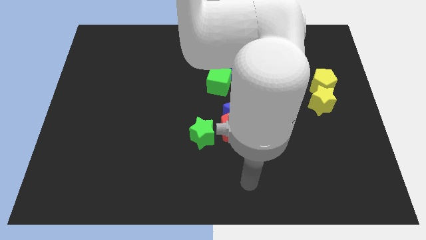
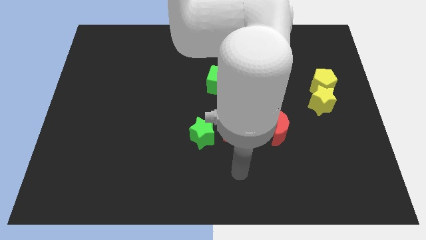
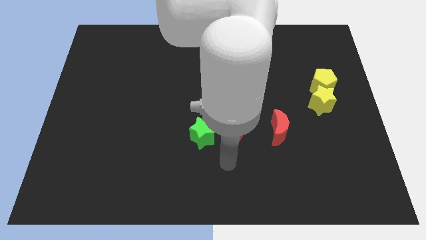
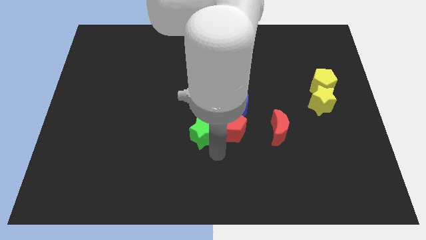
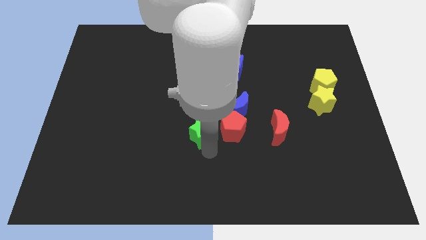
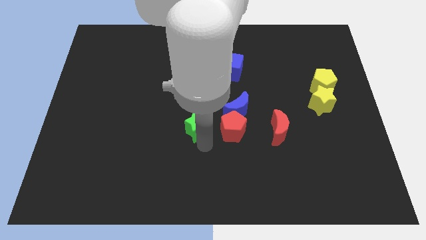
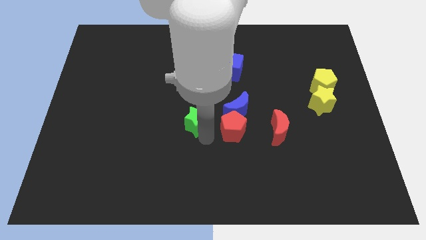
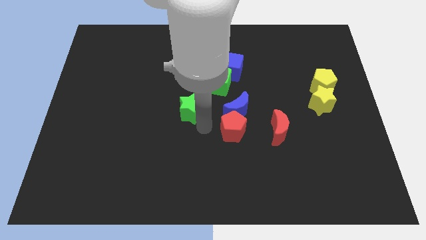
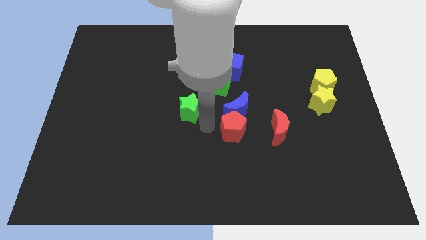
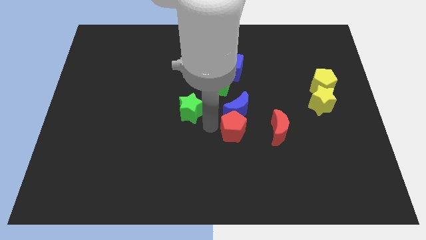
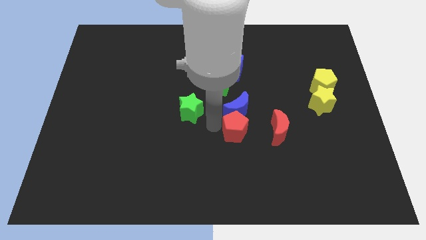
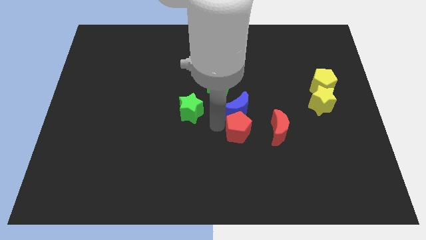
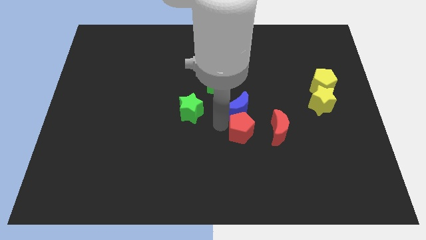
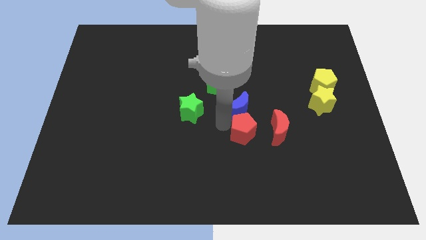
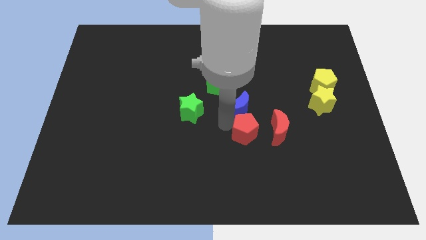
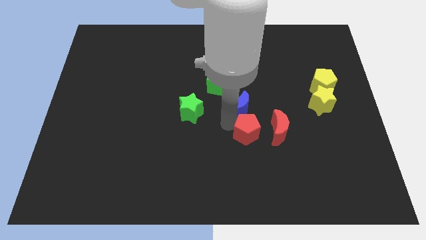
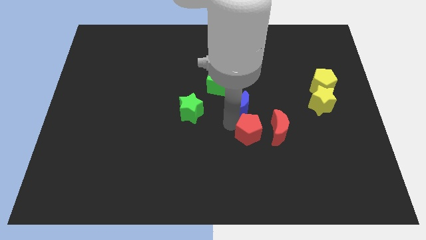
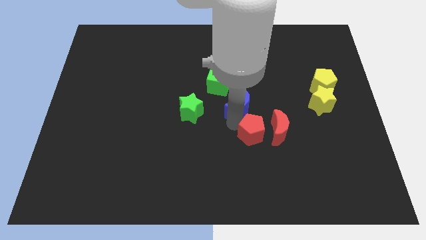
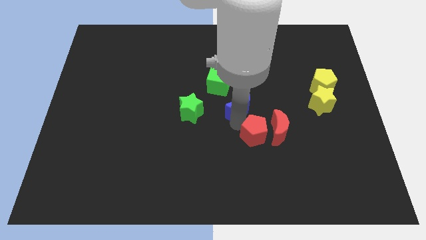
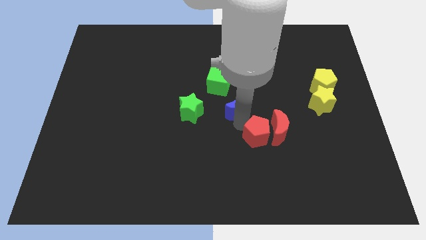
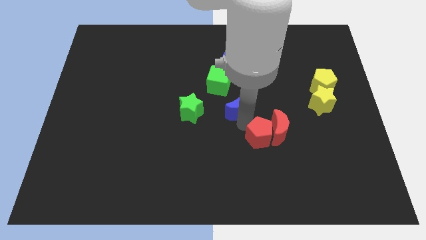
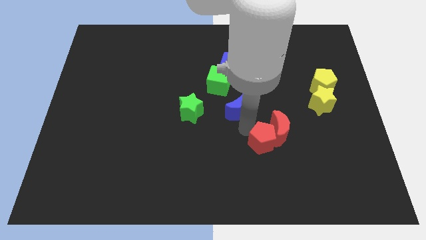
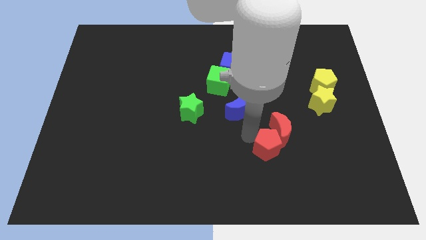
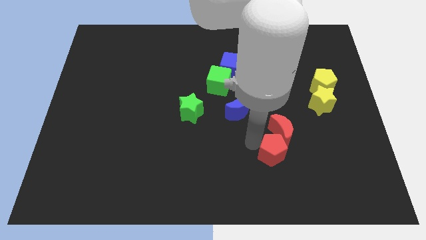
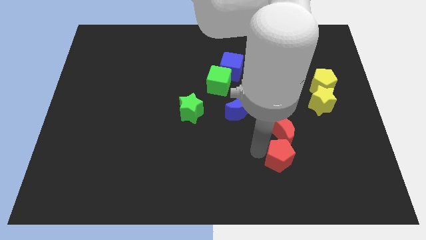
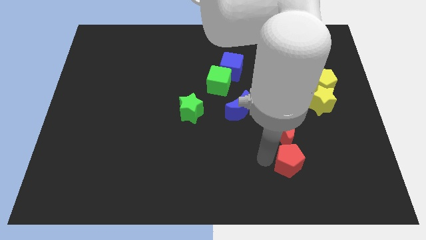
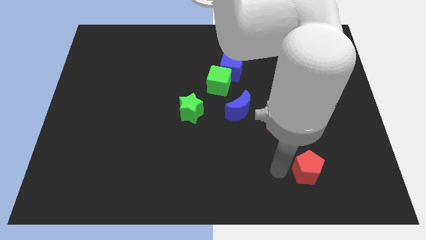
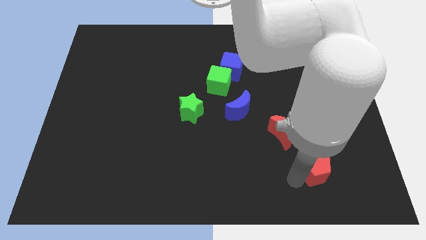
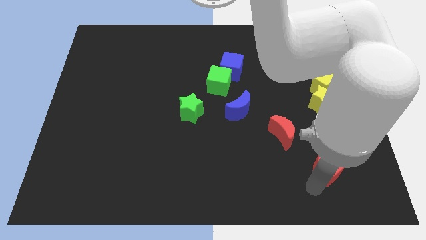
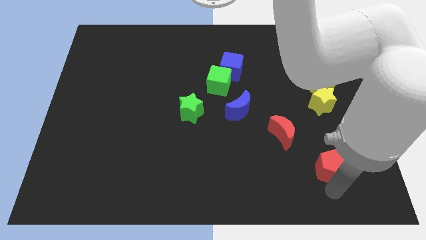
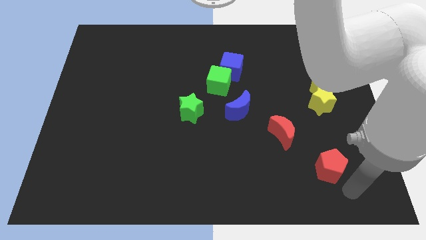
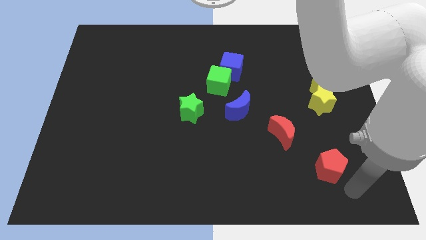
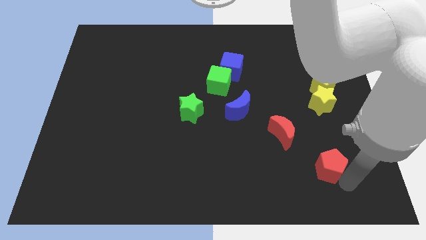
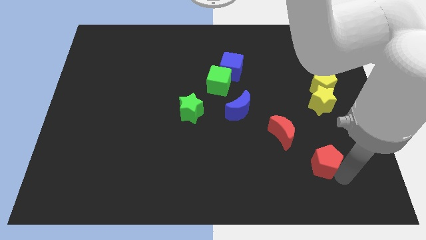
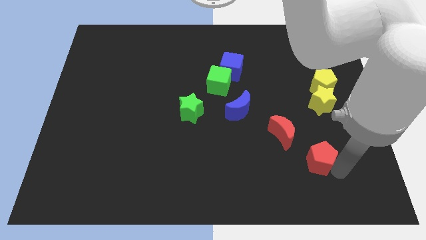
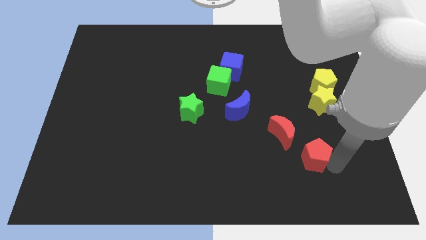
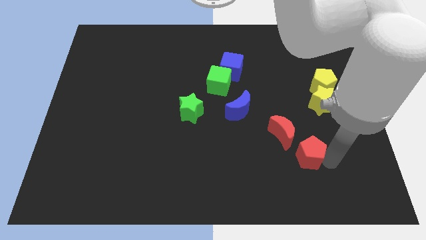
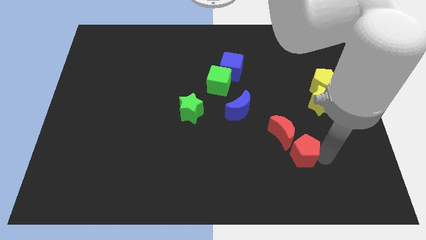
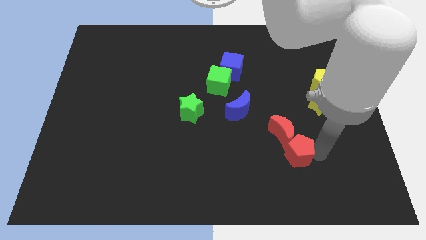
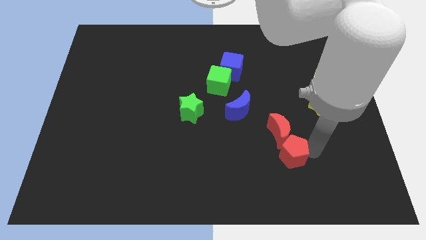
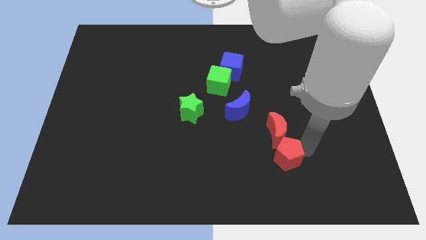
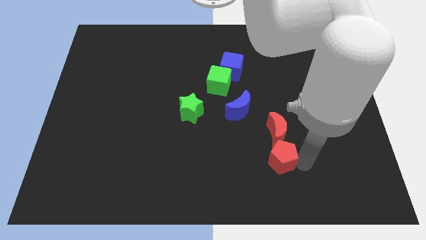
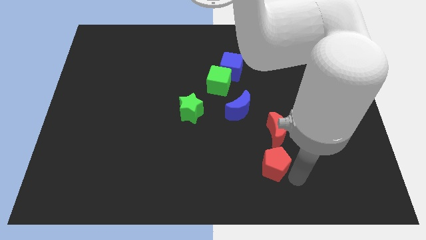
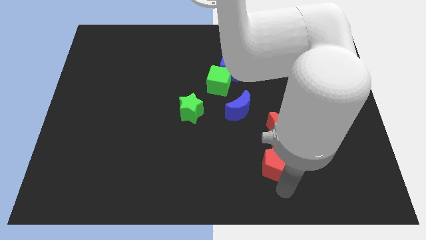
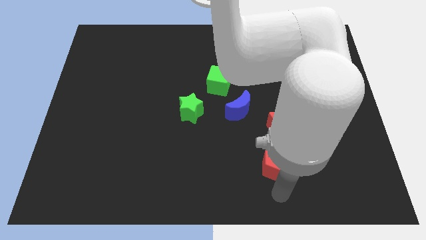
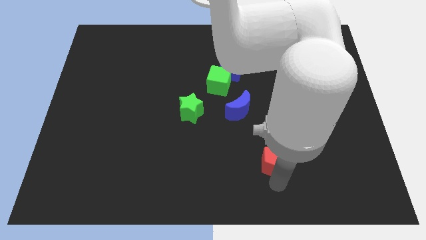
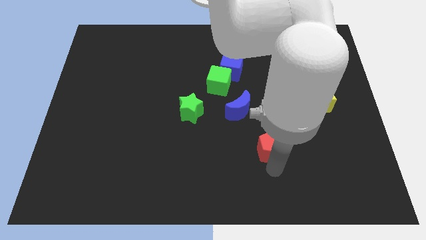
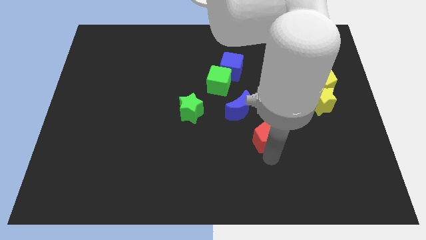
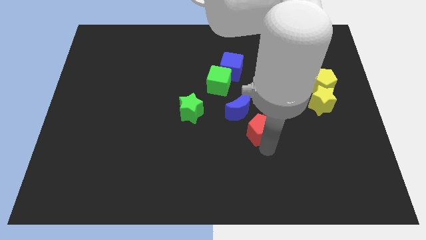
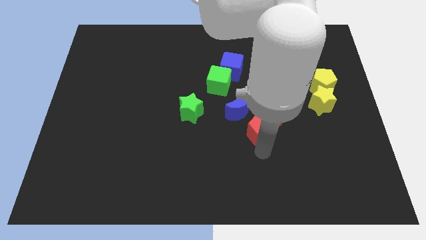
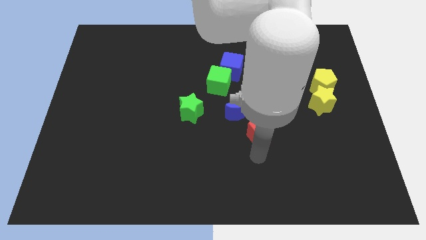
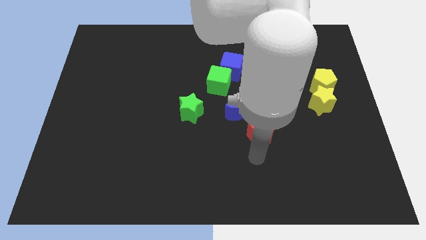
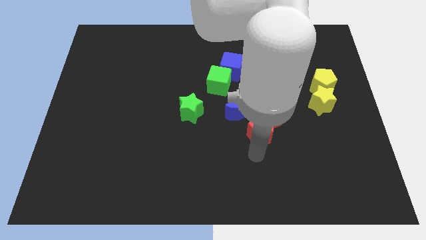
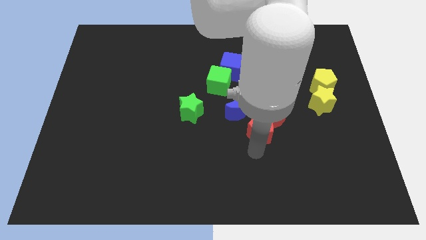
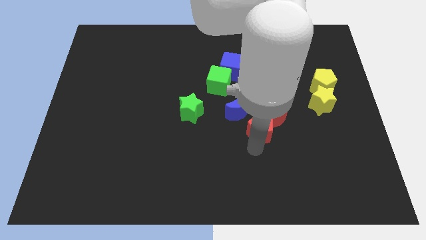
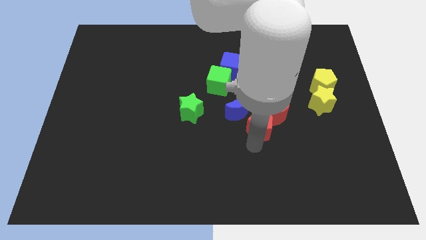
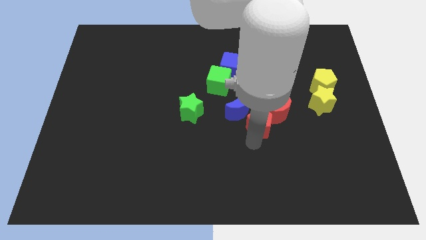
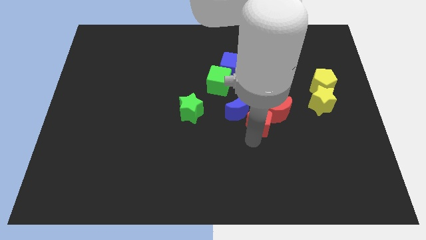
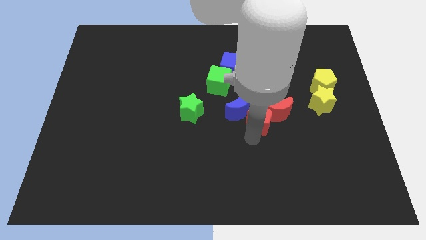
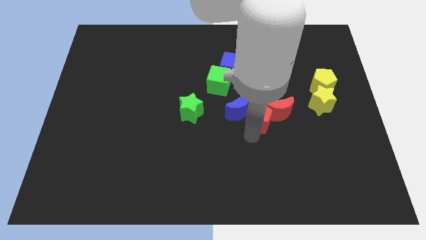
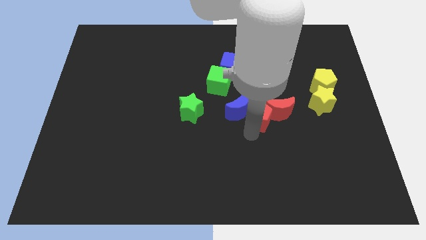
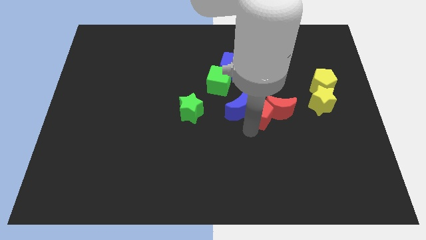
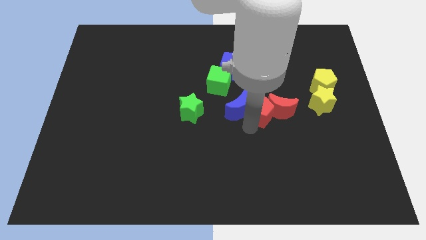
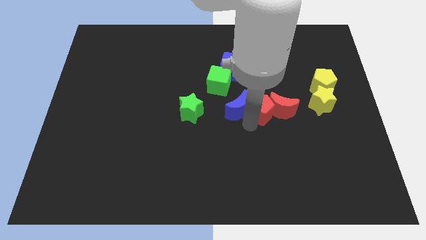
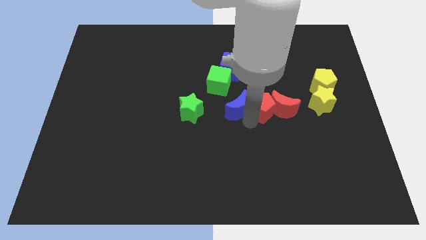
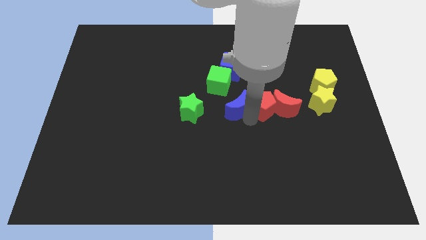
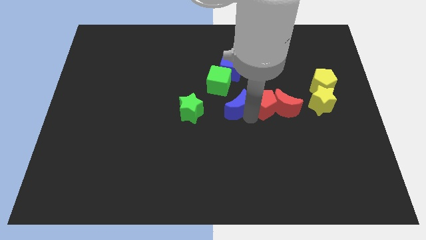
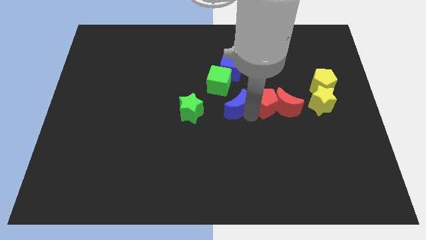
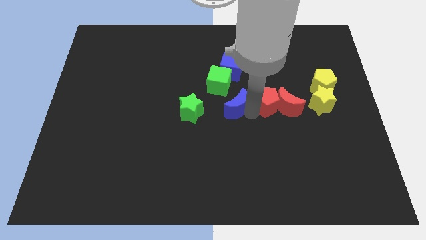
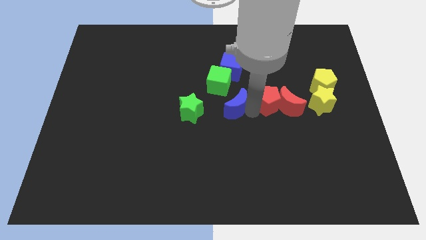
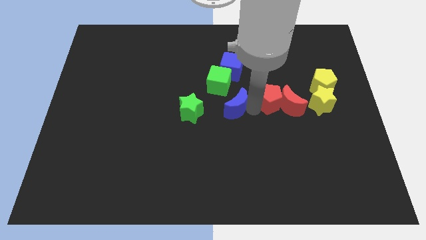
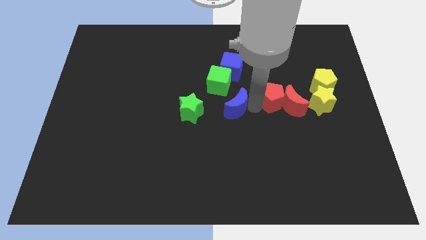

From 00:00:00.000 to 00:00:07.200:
put the red pentagon left of the yellow pentagon
